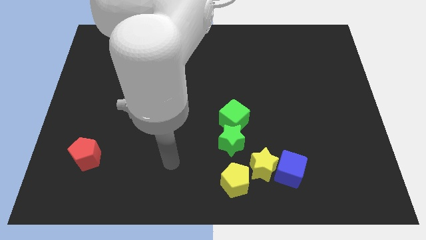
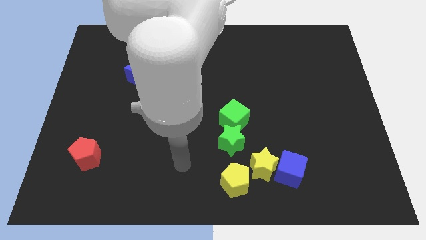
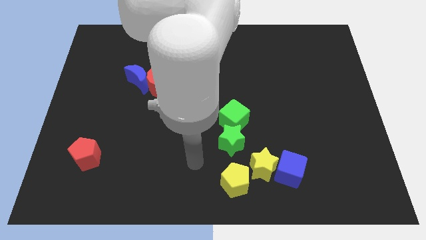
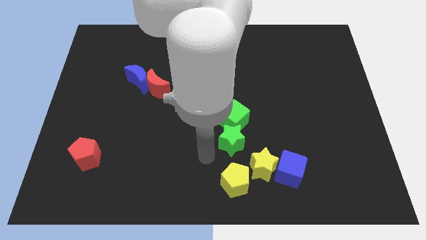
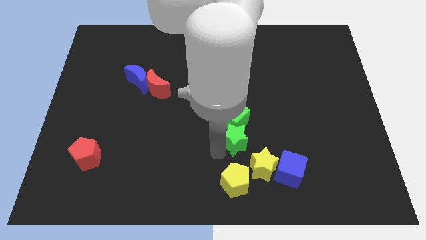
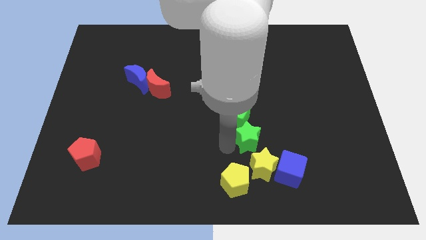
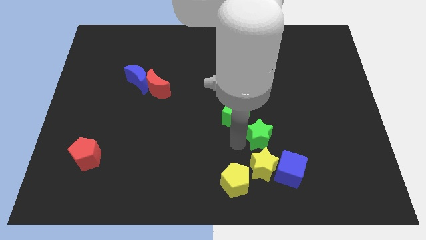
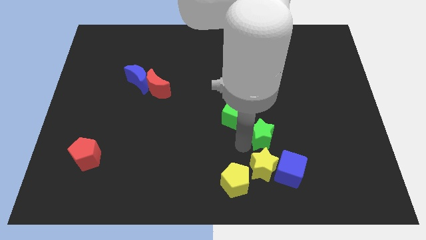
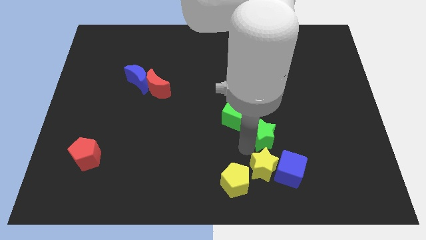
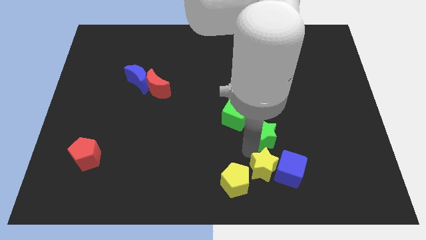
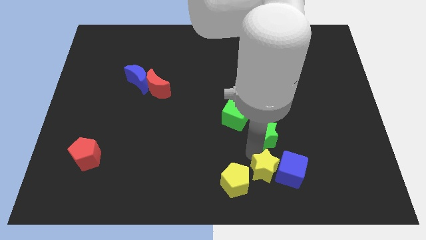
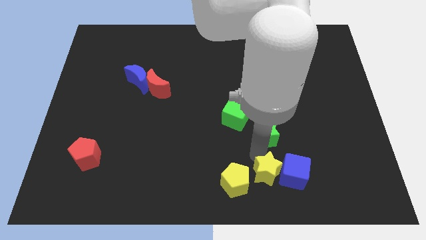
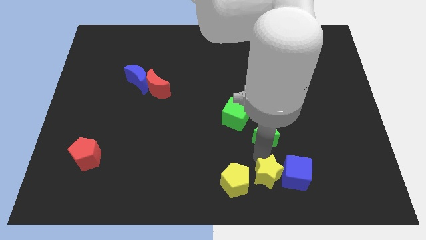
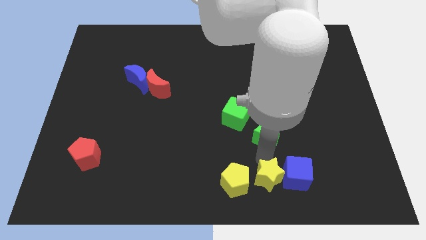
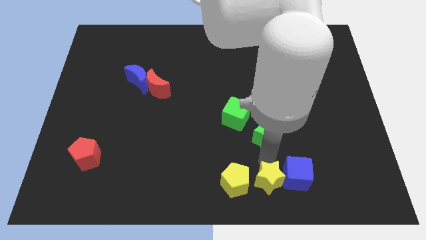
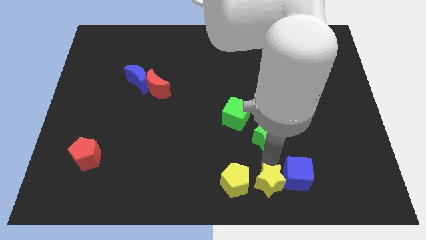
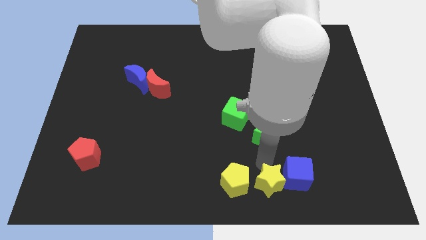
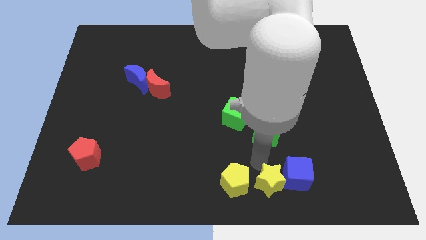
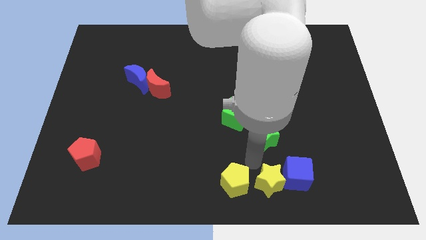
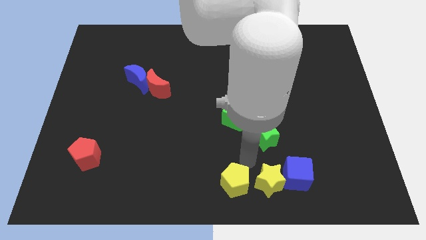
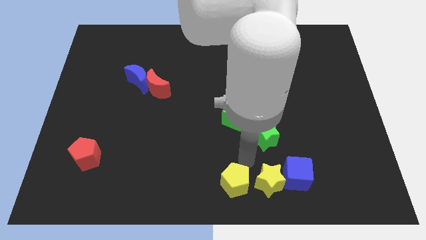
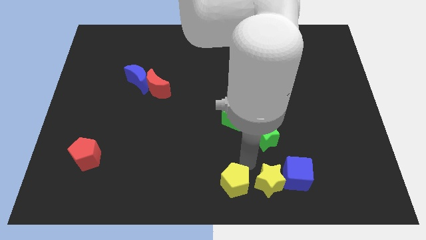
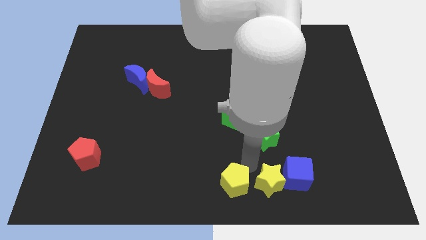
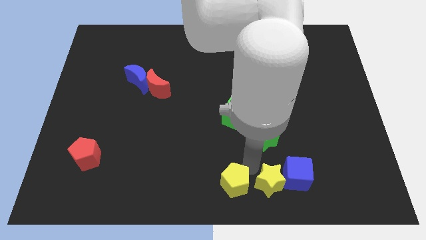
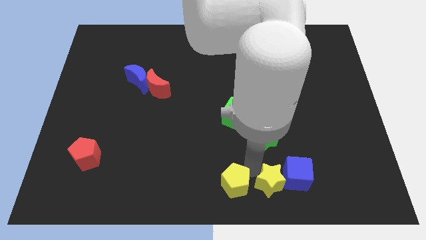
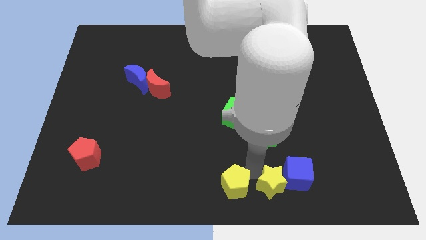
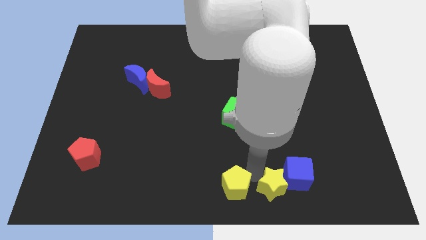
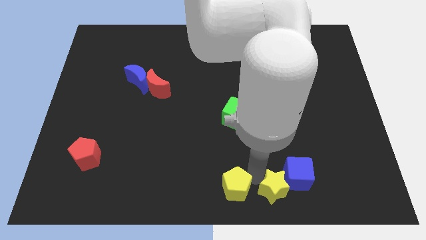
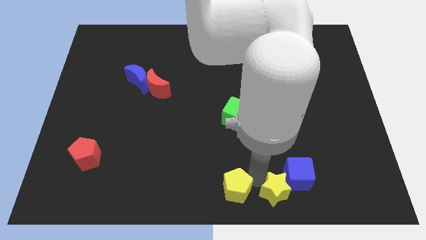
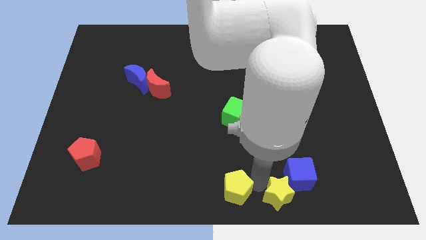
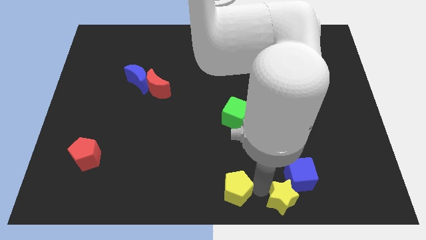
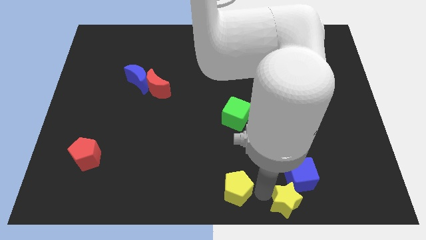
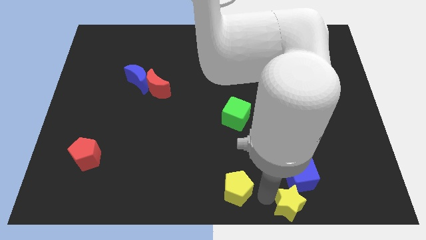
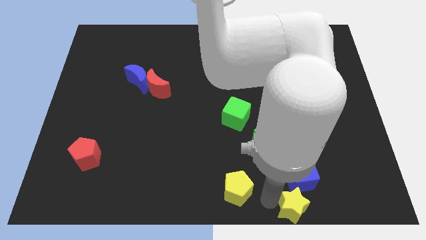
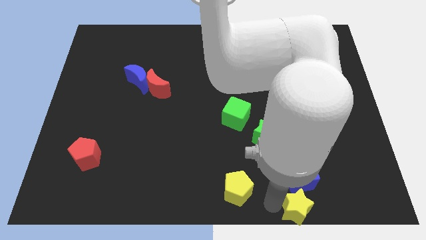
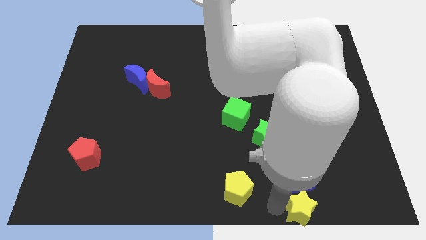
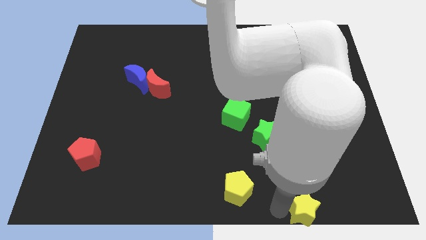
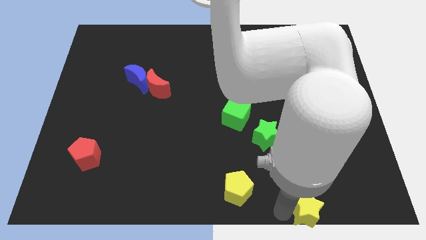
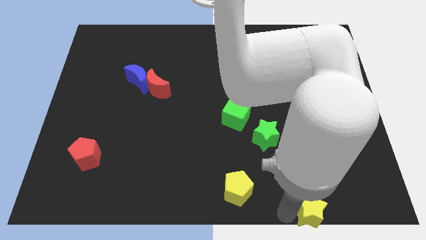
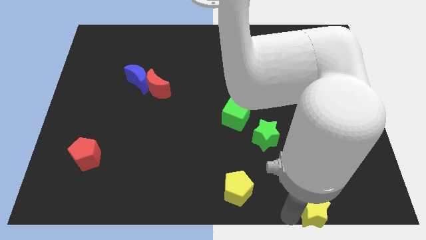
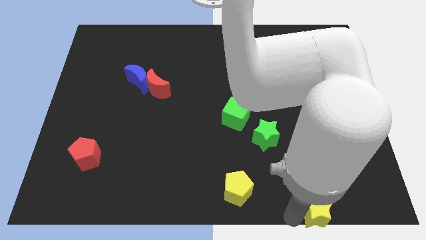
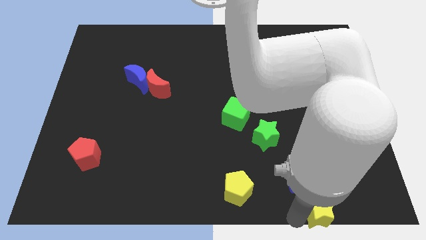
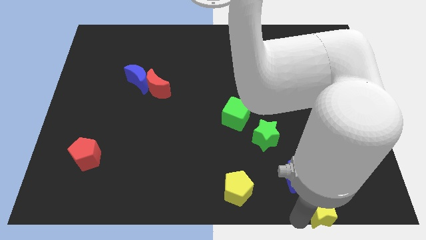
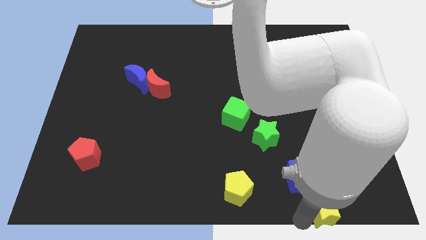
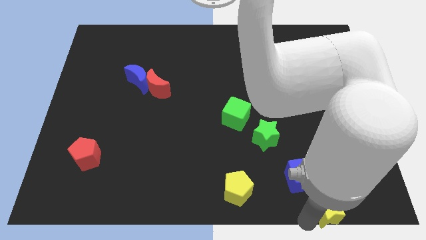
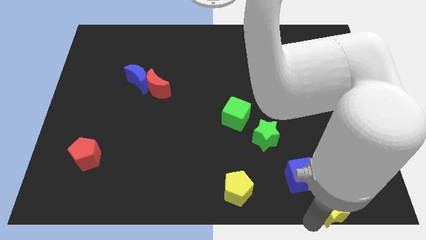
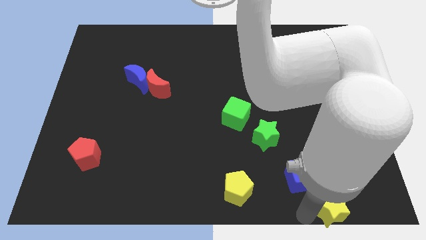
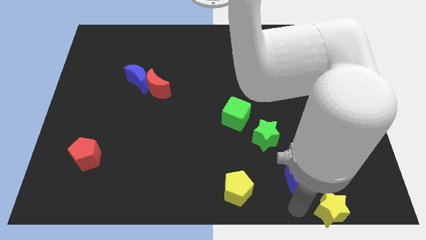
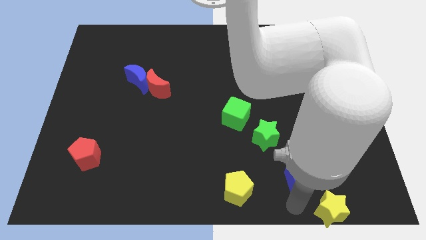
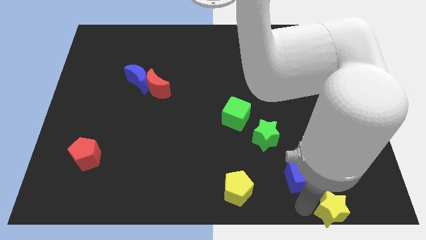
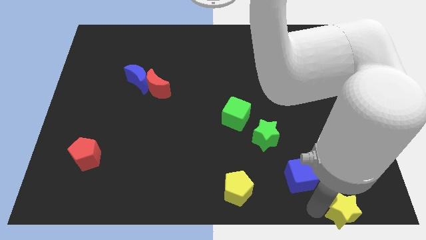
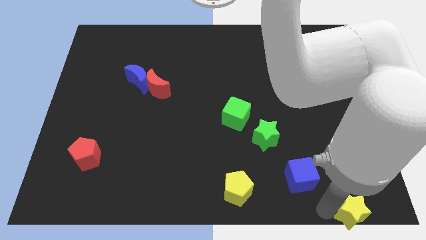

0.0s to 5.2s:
slide the yellow star to the bottom right of the board

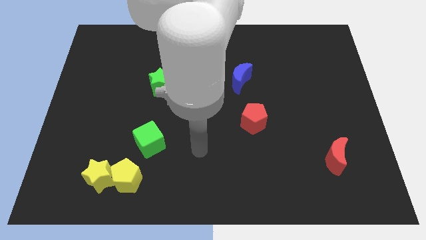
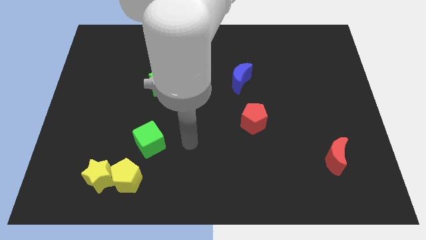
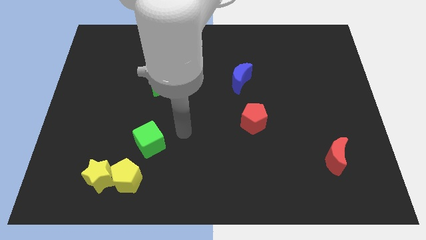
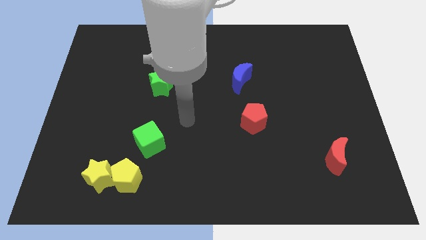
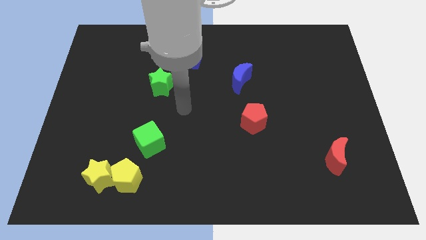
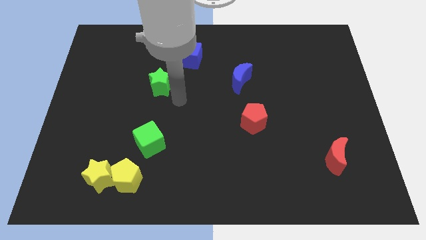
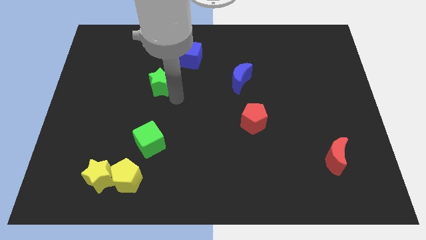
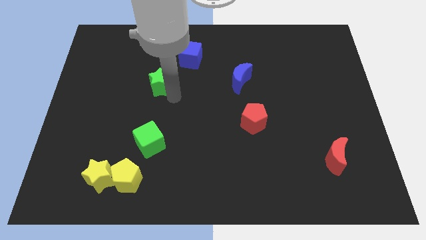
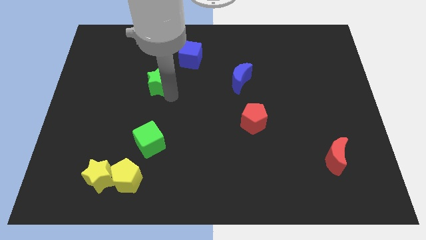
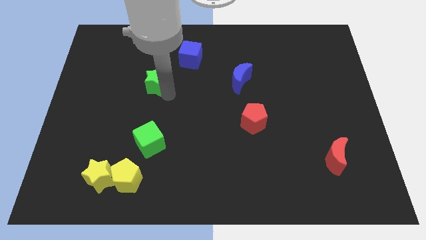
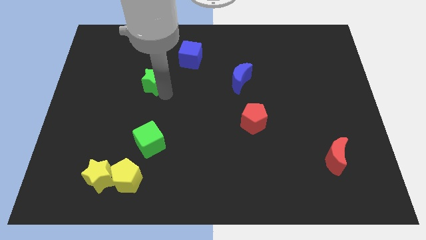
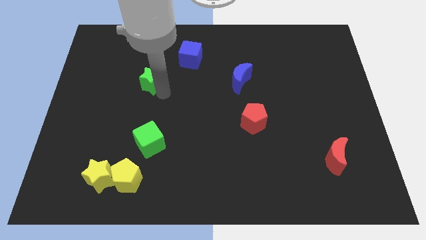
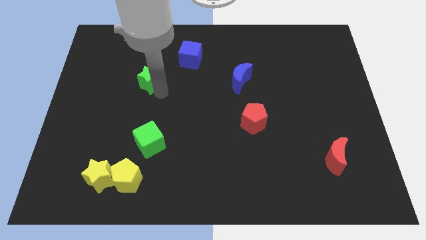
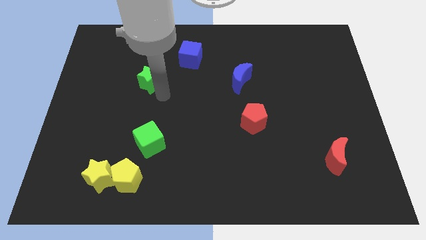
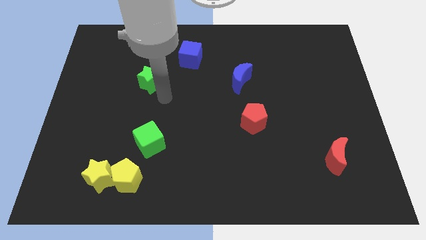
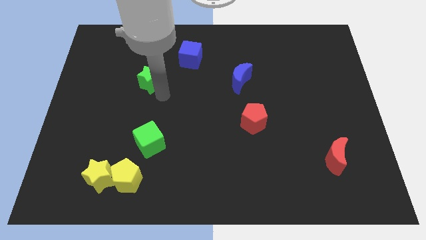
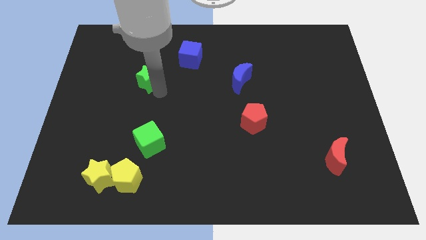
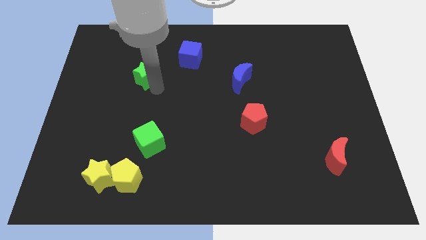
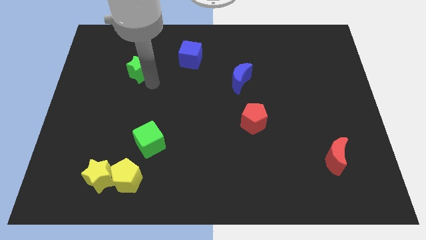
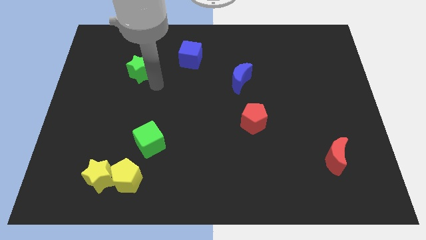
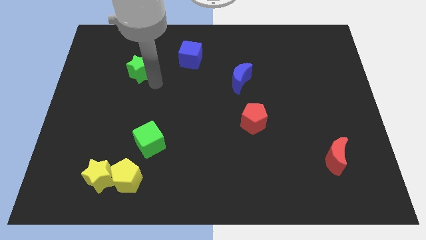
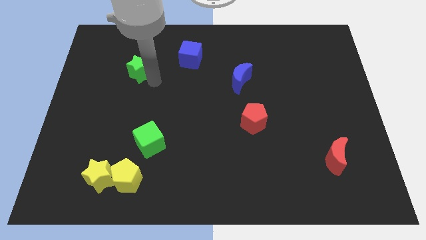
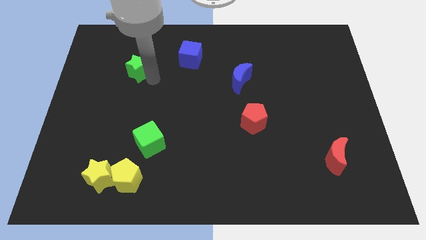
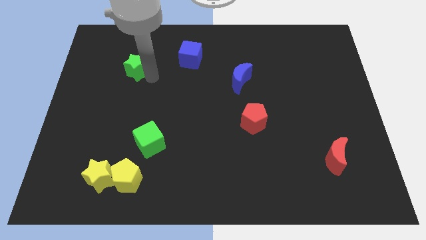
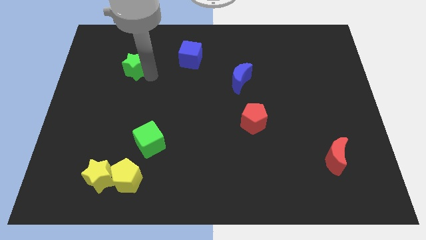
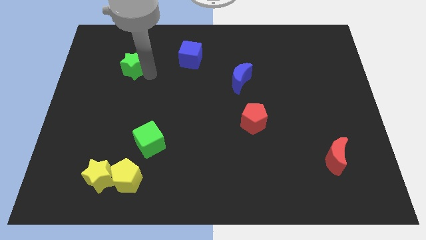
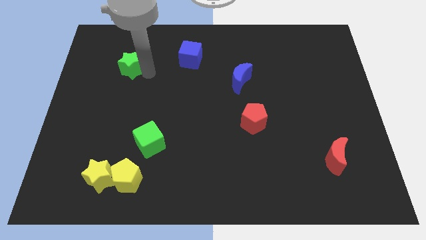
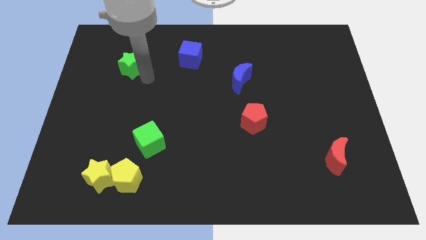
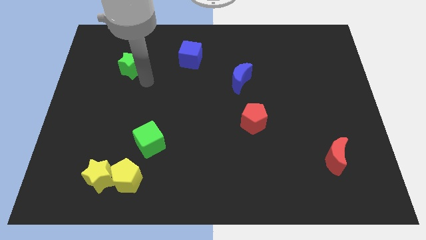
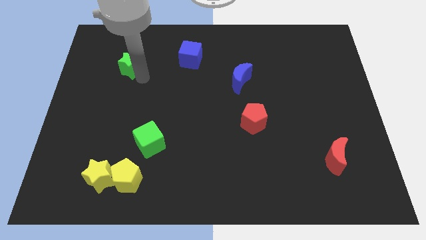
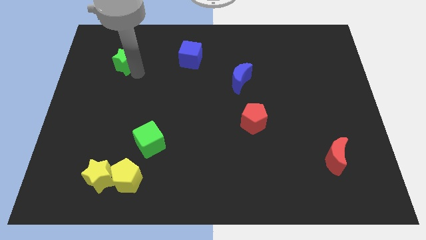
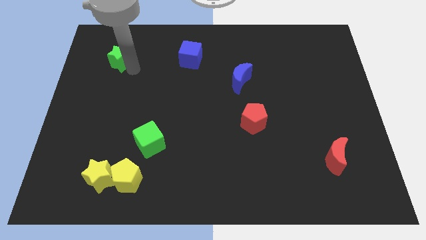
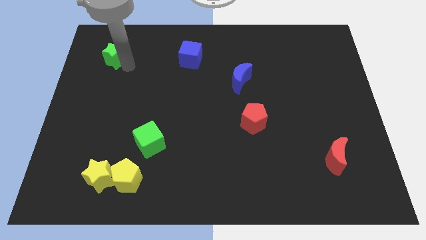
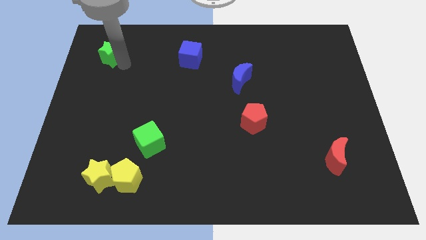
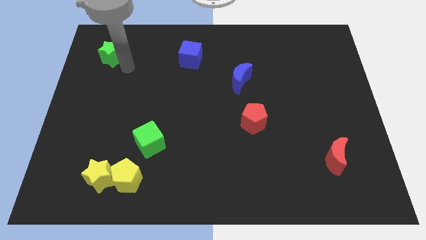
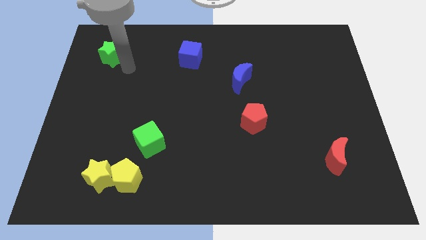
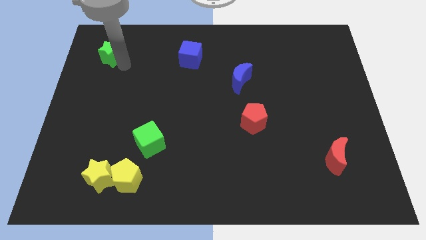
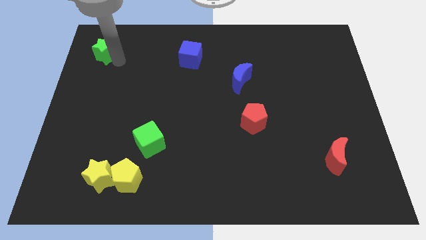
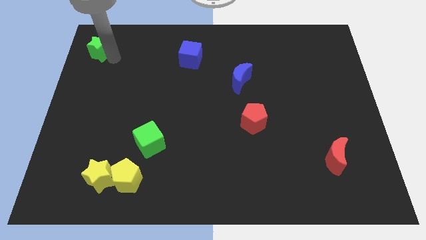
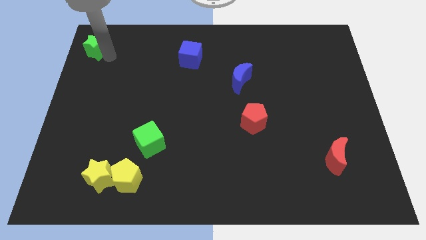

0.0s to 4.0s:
slide the green star to the top left of the board
